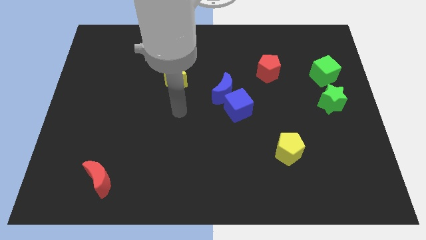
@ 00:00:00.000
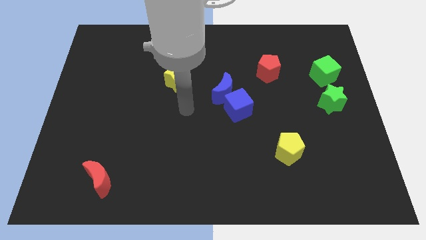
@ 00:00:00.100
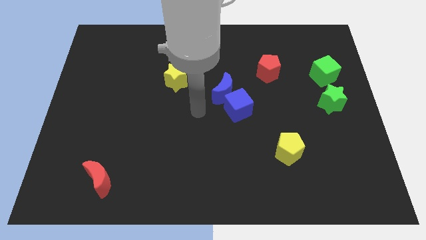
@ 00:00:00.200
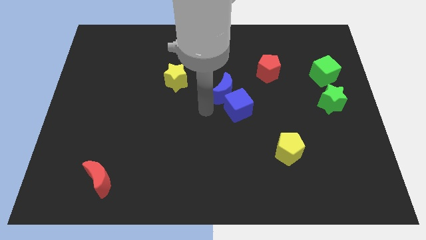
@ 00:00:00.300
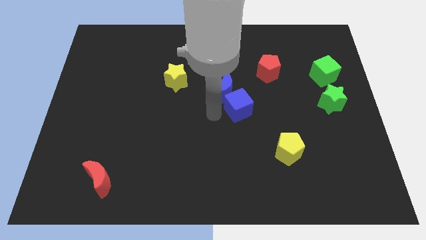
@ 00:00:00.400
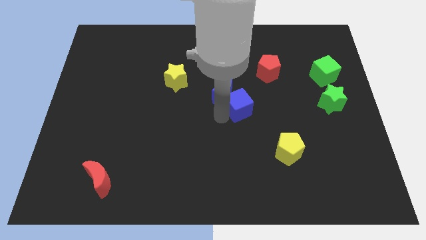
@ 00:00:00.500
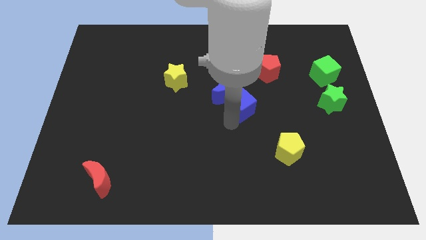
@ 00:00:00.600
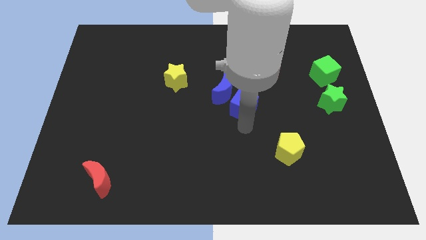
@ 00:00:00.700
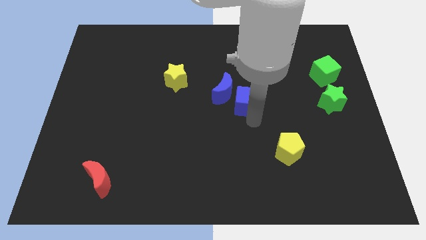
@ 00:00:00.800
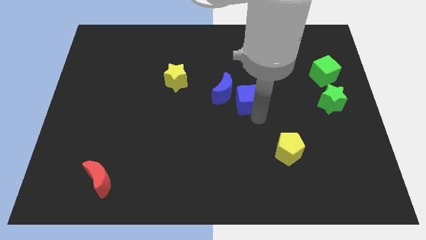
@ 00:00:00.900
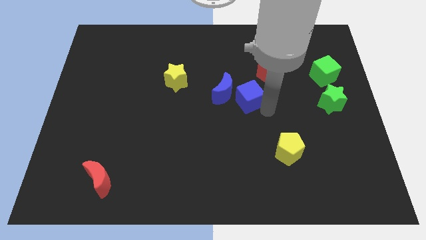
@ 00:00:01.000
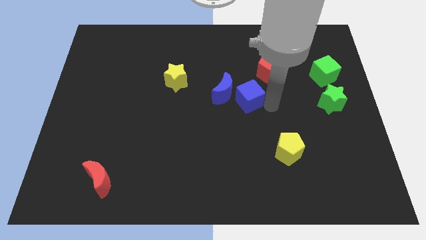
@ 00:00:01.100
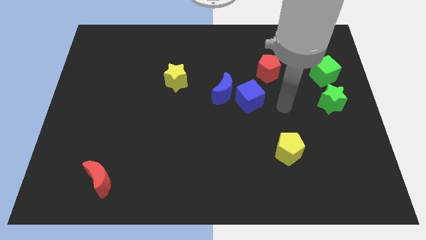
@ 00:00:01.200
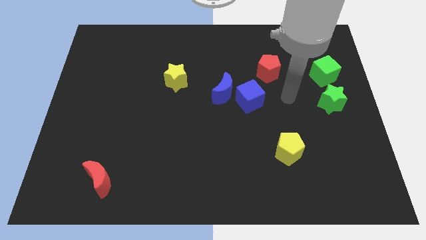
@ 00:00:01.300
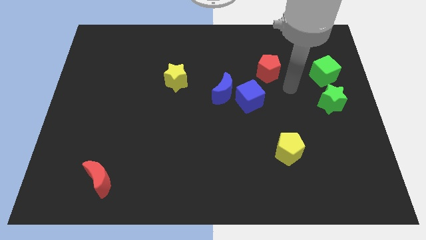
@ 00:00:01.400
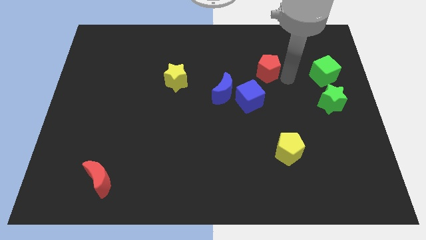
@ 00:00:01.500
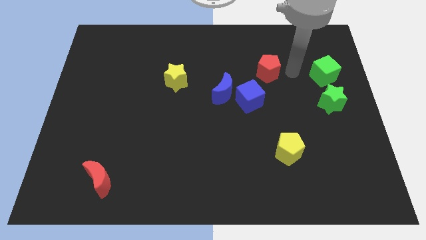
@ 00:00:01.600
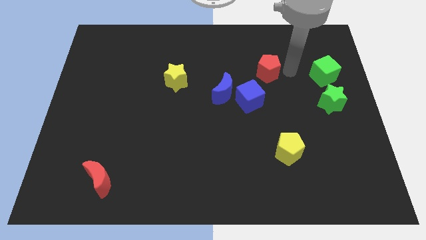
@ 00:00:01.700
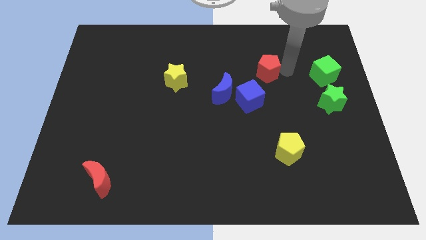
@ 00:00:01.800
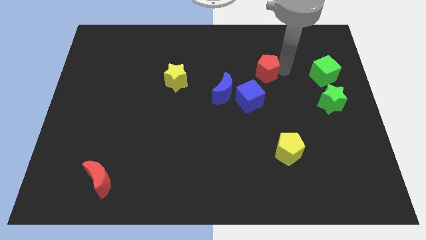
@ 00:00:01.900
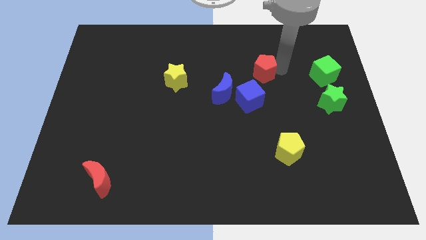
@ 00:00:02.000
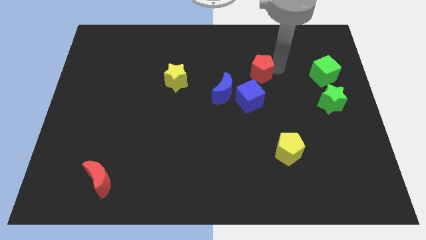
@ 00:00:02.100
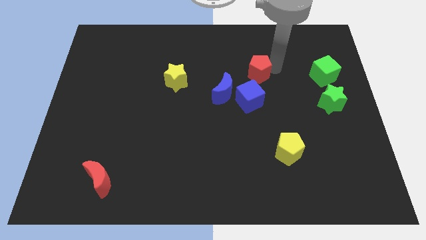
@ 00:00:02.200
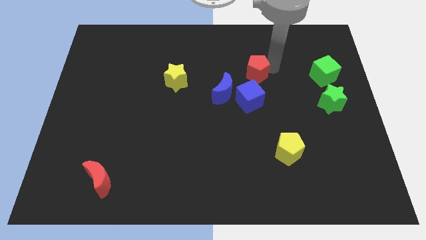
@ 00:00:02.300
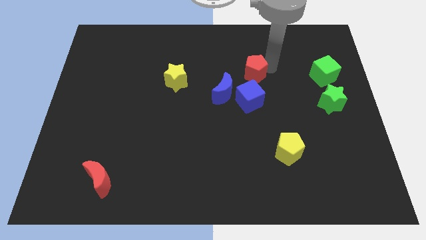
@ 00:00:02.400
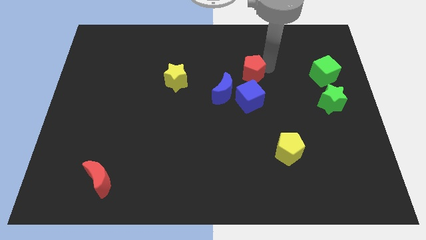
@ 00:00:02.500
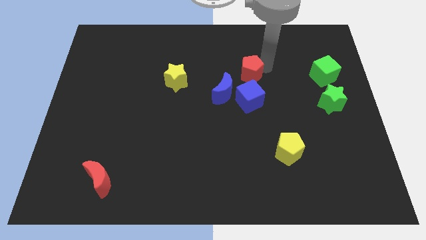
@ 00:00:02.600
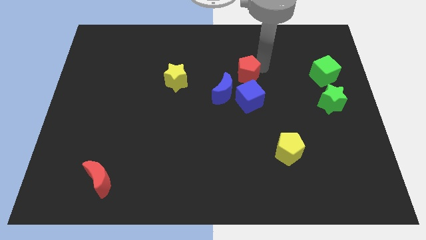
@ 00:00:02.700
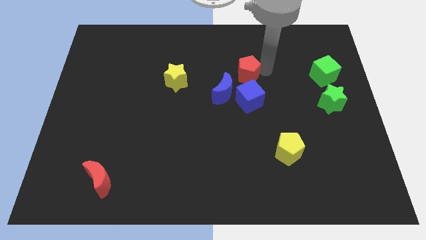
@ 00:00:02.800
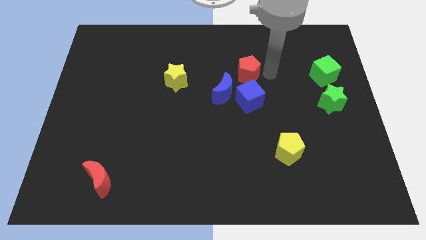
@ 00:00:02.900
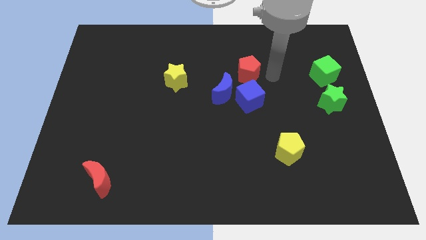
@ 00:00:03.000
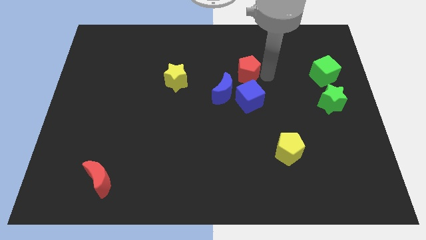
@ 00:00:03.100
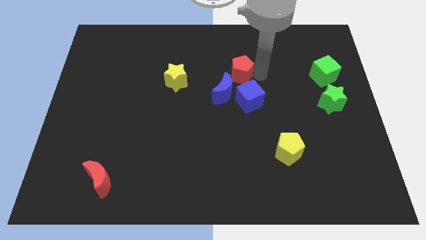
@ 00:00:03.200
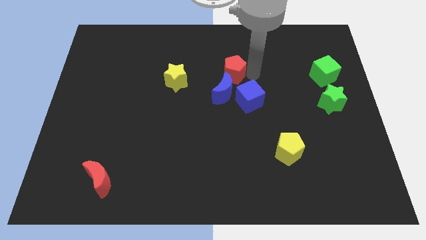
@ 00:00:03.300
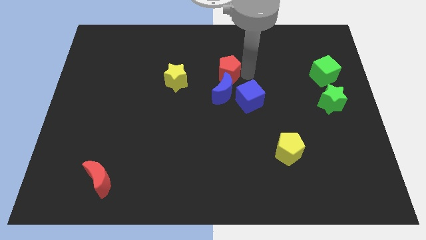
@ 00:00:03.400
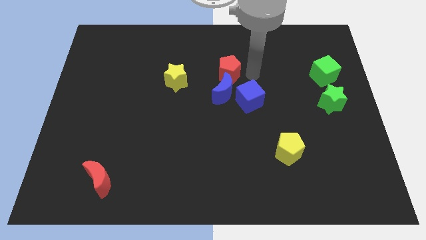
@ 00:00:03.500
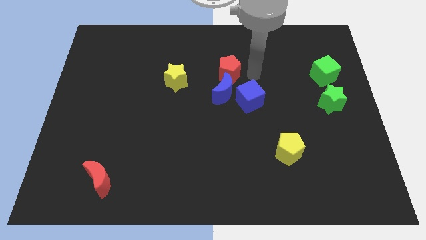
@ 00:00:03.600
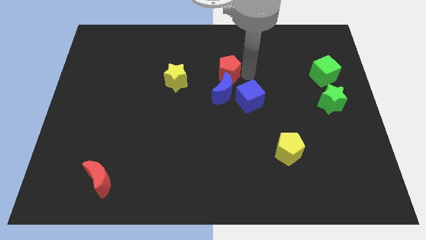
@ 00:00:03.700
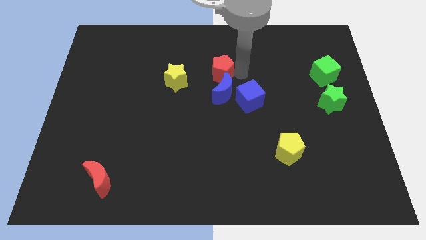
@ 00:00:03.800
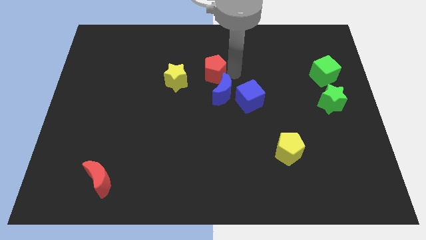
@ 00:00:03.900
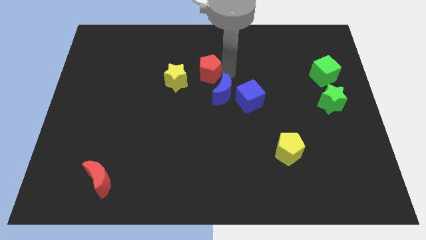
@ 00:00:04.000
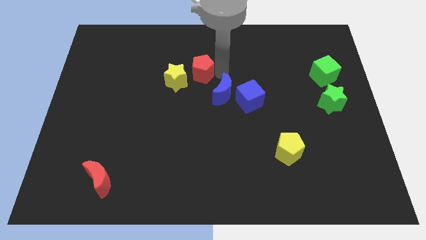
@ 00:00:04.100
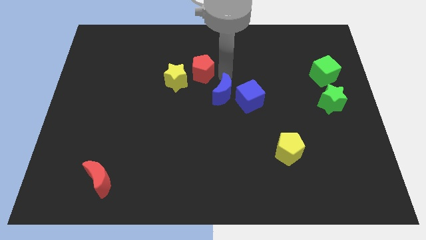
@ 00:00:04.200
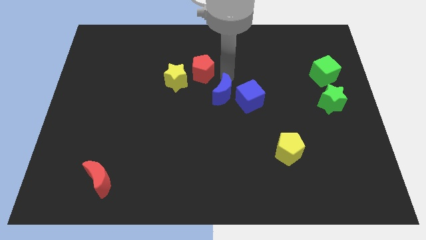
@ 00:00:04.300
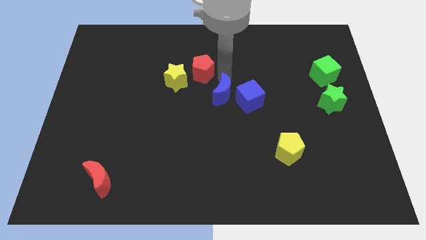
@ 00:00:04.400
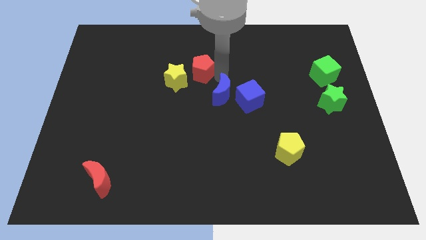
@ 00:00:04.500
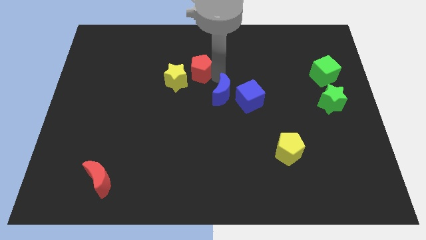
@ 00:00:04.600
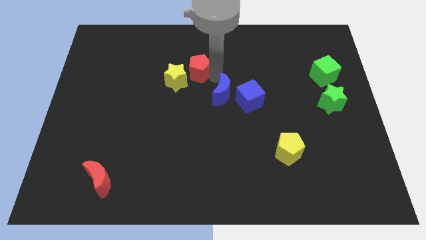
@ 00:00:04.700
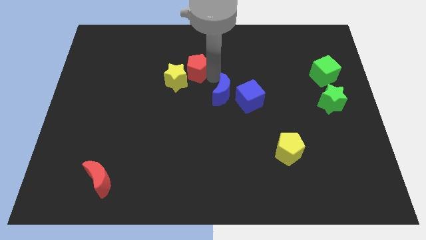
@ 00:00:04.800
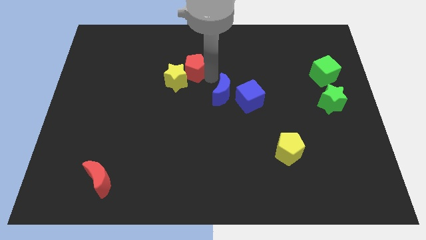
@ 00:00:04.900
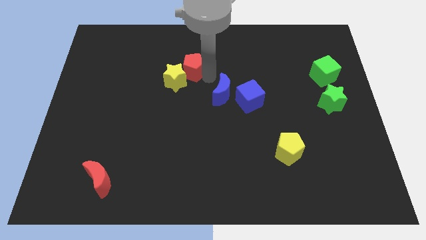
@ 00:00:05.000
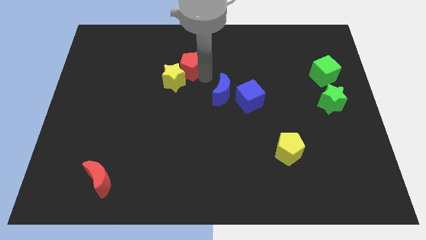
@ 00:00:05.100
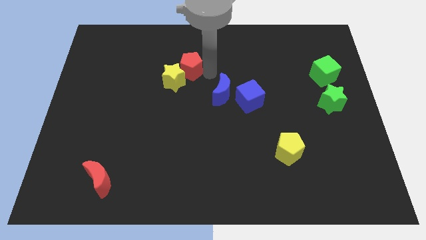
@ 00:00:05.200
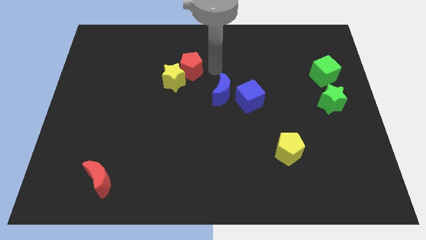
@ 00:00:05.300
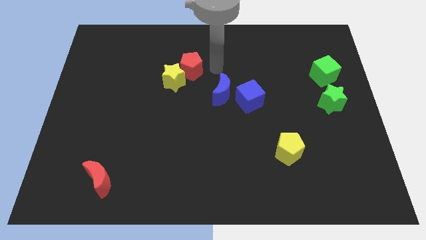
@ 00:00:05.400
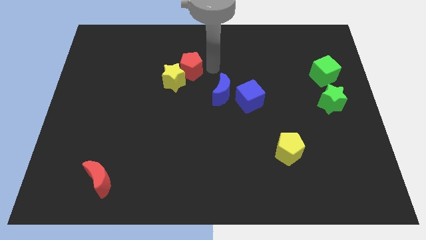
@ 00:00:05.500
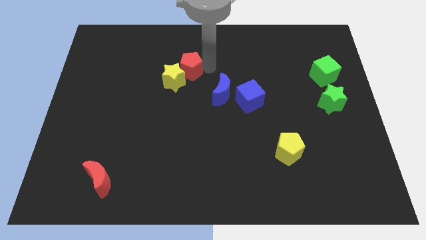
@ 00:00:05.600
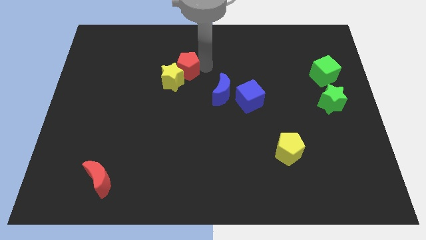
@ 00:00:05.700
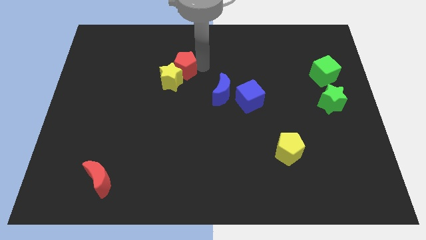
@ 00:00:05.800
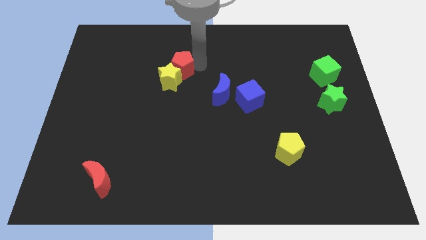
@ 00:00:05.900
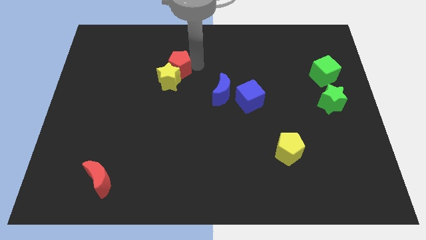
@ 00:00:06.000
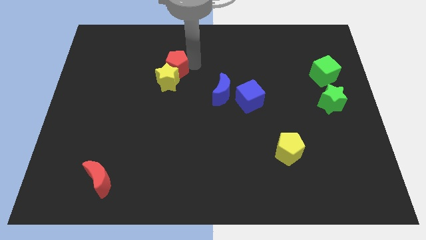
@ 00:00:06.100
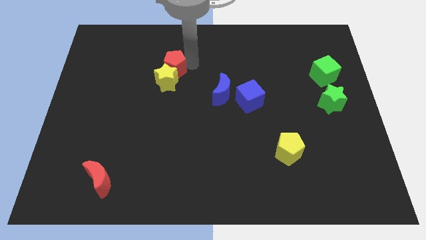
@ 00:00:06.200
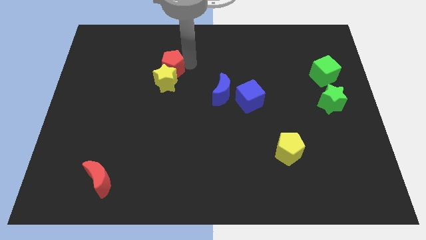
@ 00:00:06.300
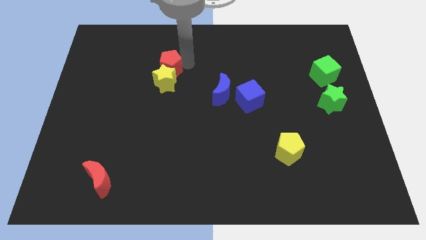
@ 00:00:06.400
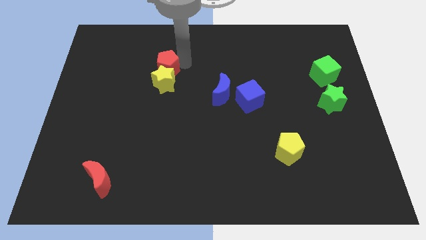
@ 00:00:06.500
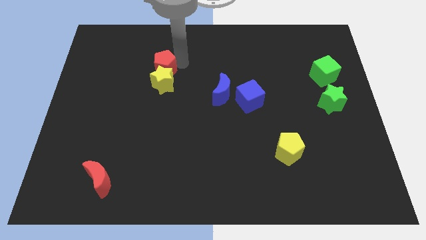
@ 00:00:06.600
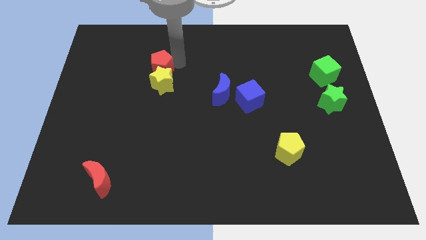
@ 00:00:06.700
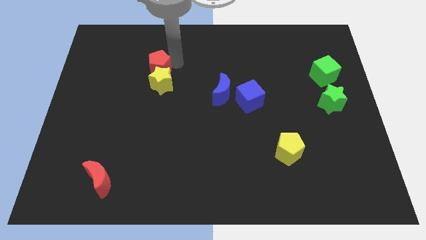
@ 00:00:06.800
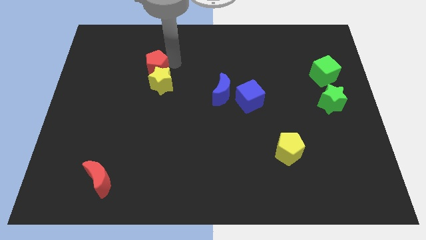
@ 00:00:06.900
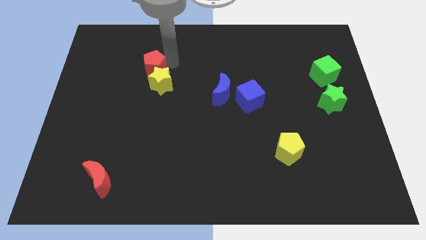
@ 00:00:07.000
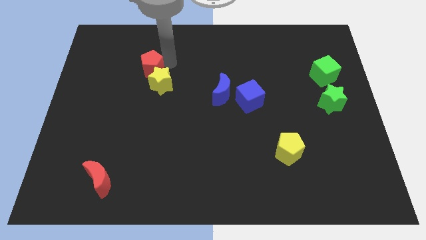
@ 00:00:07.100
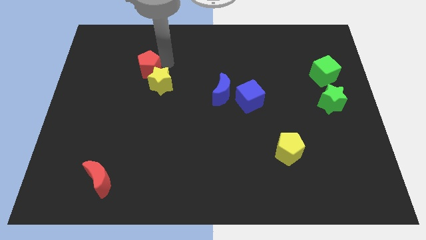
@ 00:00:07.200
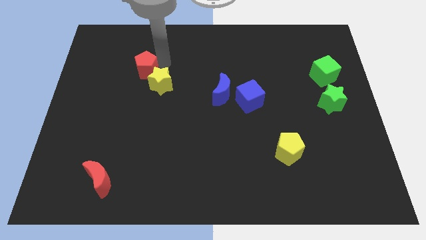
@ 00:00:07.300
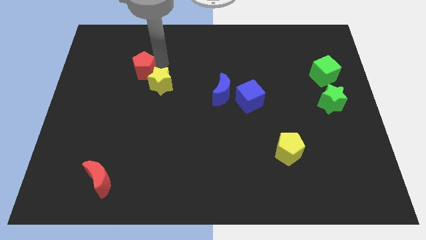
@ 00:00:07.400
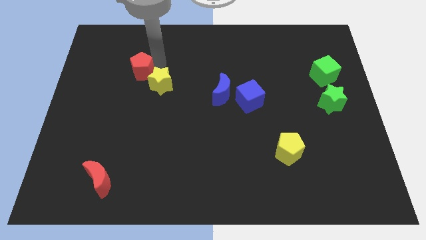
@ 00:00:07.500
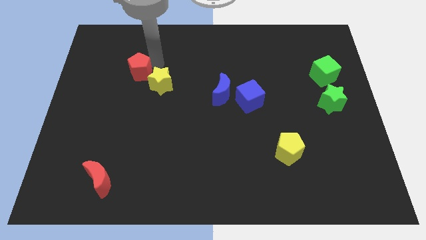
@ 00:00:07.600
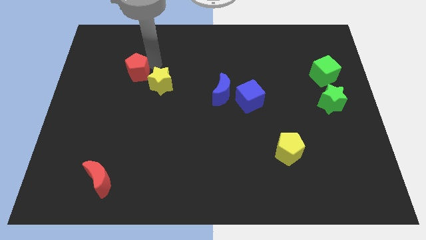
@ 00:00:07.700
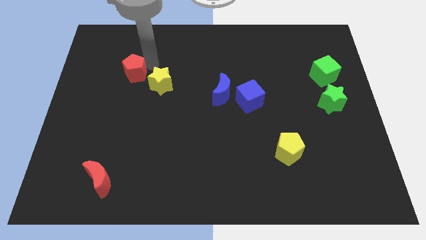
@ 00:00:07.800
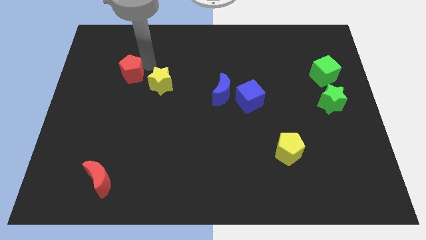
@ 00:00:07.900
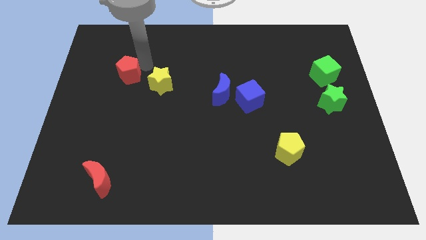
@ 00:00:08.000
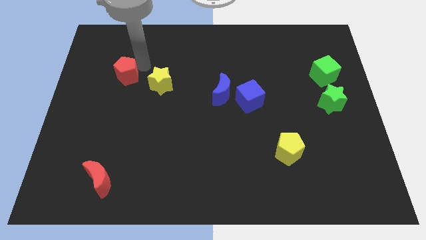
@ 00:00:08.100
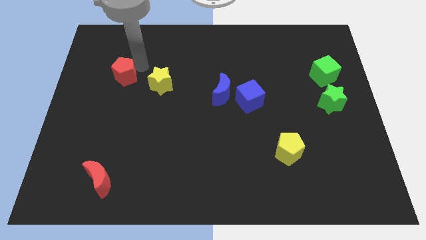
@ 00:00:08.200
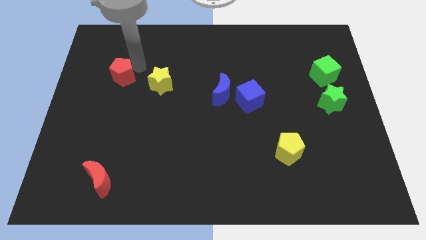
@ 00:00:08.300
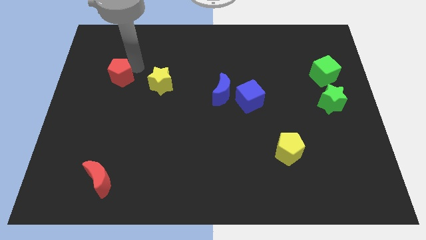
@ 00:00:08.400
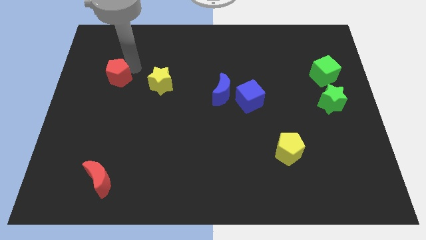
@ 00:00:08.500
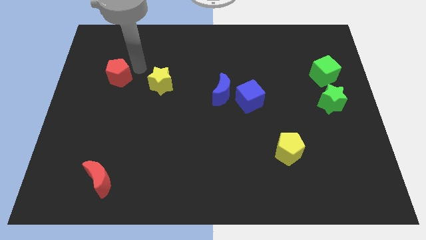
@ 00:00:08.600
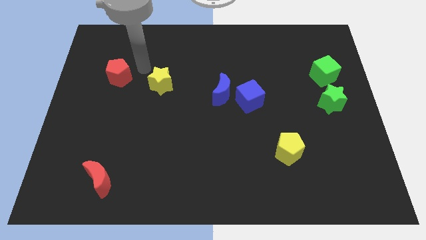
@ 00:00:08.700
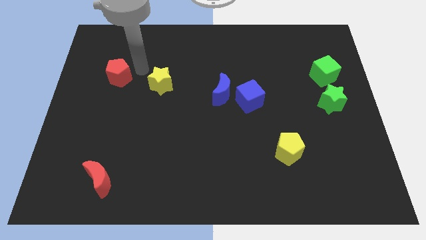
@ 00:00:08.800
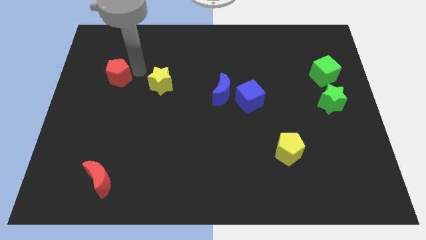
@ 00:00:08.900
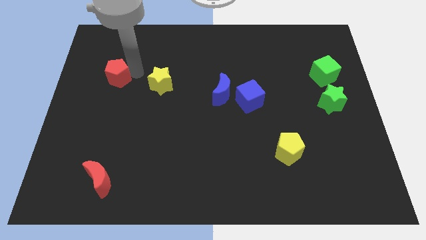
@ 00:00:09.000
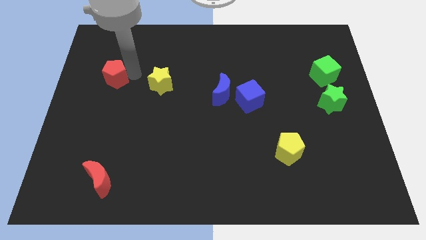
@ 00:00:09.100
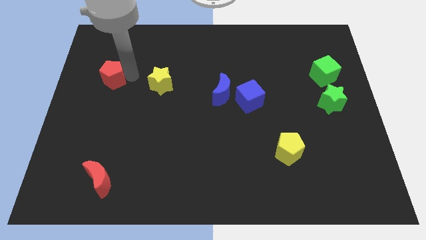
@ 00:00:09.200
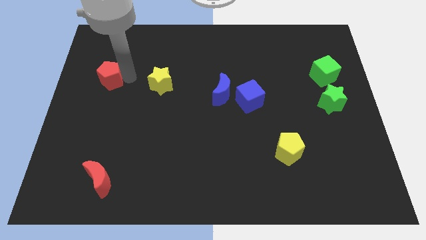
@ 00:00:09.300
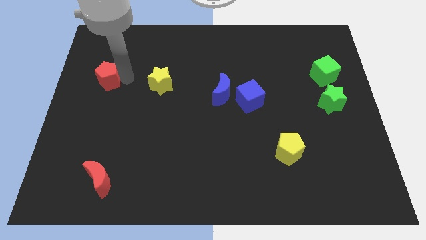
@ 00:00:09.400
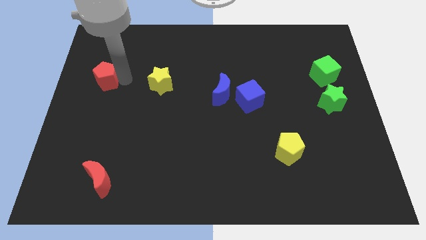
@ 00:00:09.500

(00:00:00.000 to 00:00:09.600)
move the red pentagon to the center left
